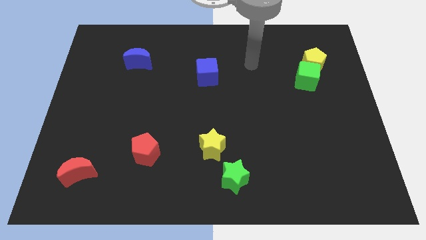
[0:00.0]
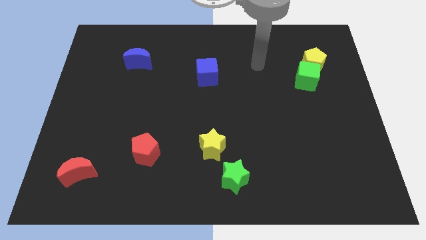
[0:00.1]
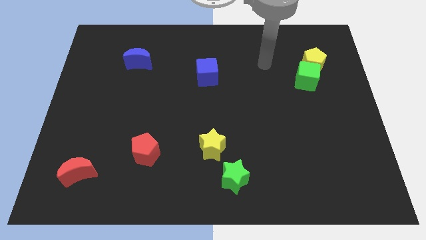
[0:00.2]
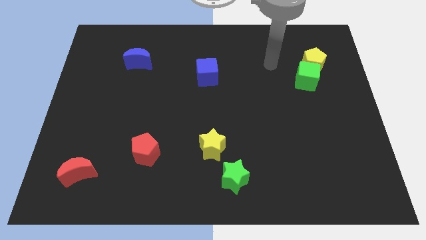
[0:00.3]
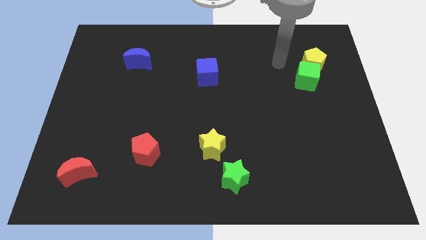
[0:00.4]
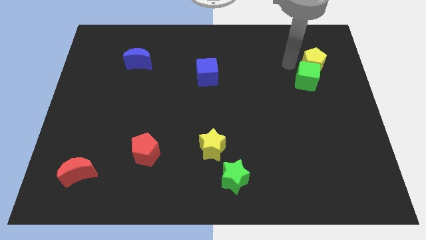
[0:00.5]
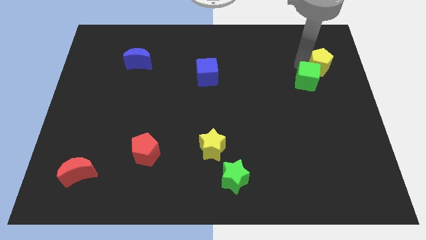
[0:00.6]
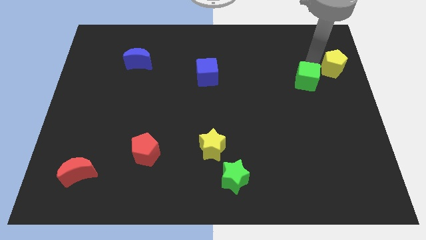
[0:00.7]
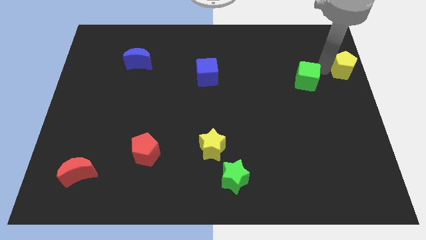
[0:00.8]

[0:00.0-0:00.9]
pull the green cube apart from the yellow pentagon

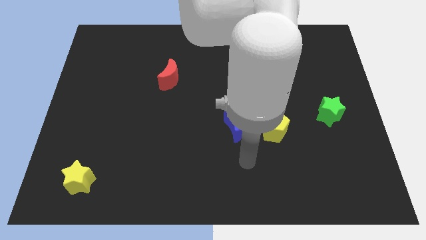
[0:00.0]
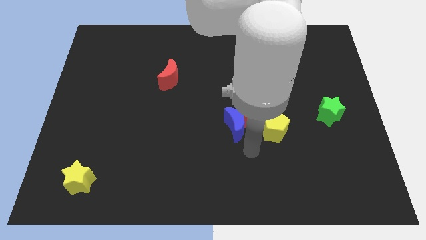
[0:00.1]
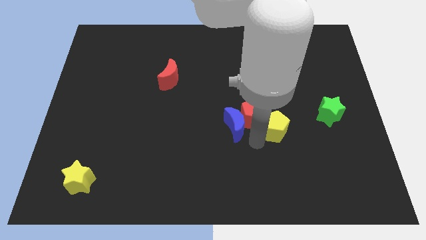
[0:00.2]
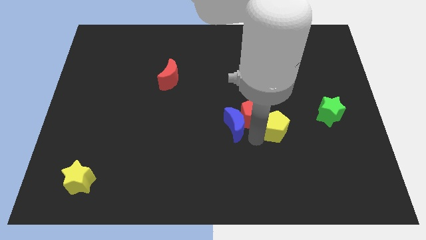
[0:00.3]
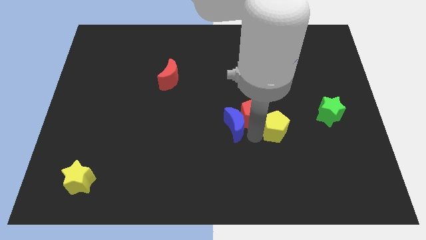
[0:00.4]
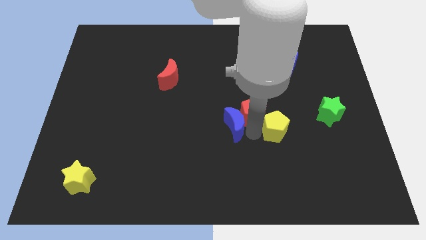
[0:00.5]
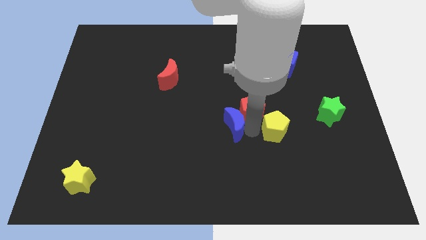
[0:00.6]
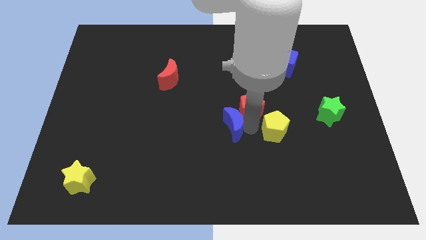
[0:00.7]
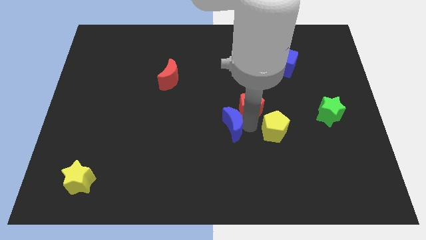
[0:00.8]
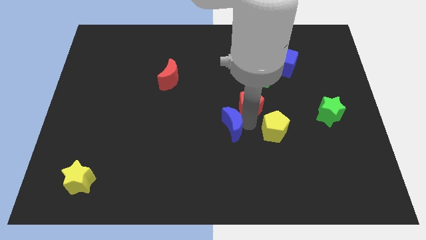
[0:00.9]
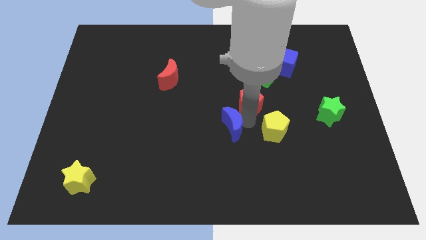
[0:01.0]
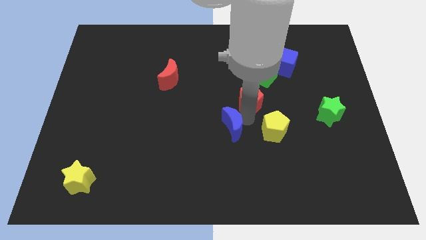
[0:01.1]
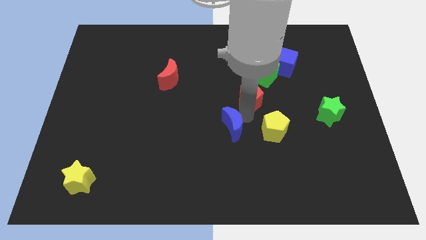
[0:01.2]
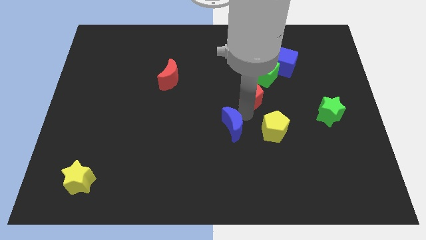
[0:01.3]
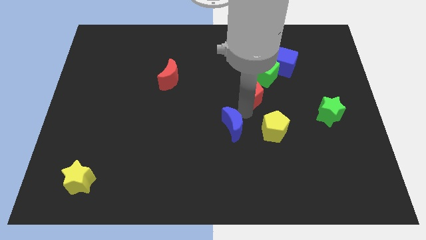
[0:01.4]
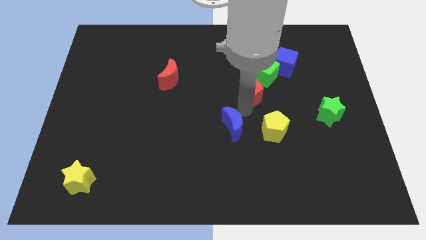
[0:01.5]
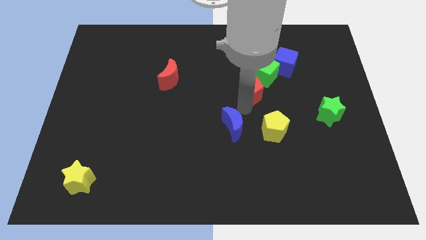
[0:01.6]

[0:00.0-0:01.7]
separate the red pentagon from the blue moon and yellow pentagon

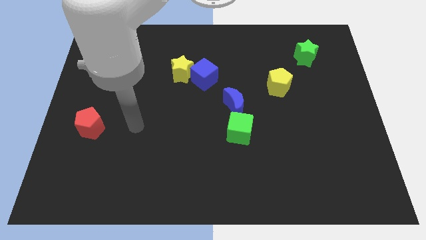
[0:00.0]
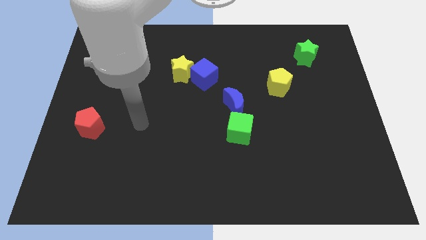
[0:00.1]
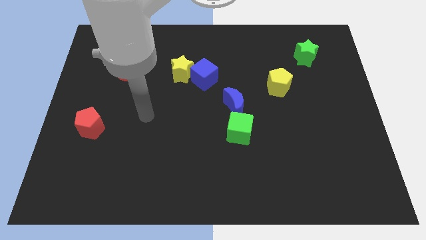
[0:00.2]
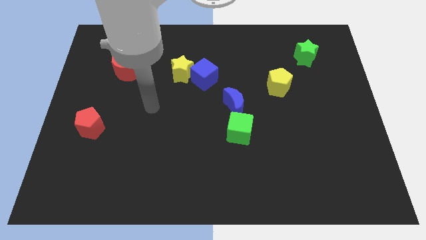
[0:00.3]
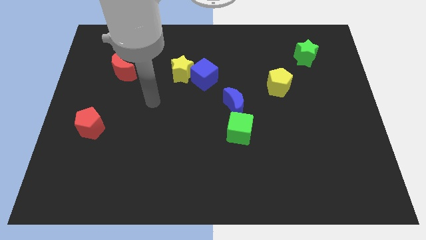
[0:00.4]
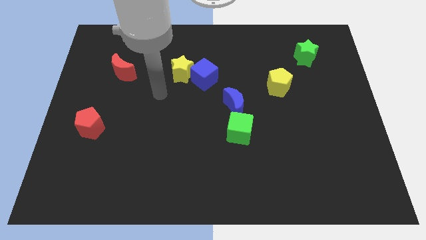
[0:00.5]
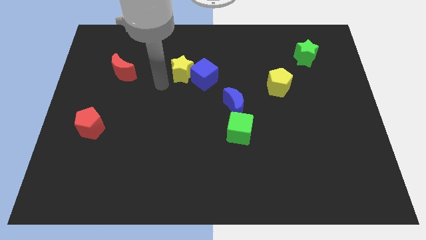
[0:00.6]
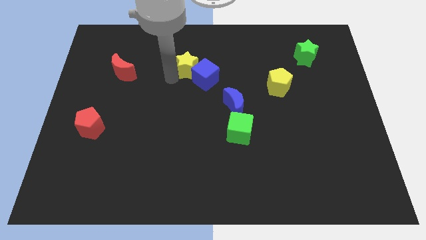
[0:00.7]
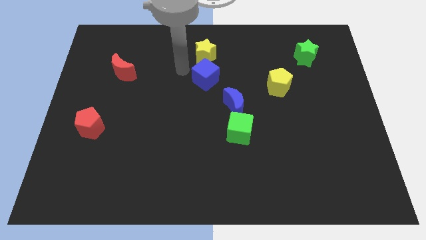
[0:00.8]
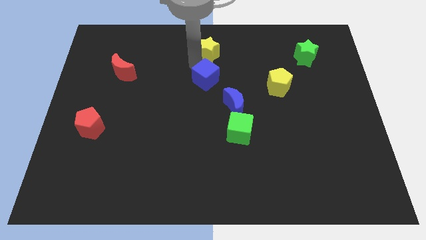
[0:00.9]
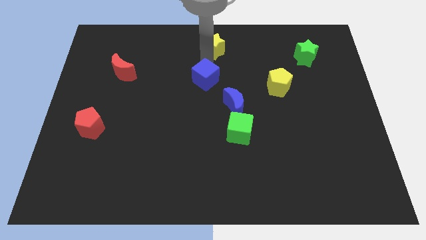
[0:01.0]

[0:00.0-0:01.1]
pull the blue cube apart from the yellow star

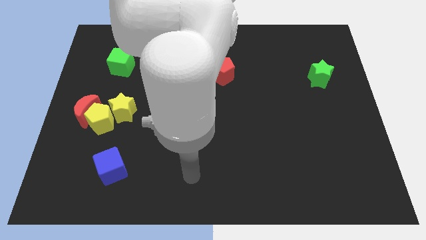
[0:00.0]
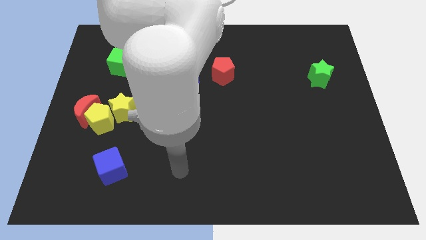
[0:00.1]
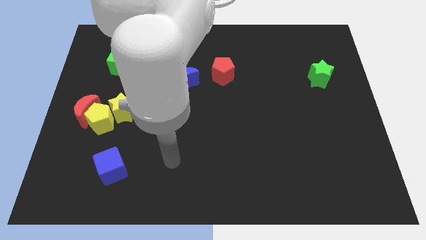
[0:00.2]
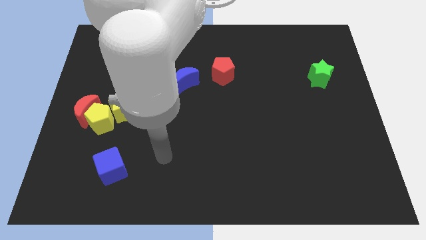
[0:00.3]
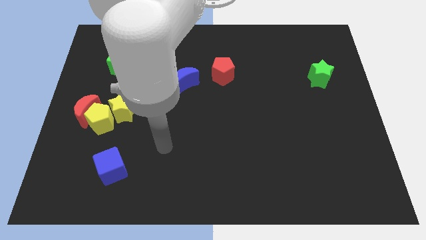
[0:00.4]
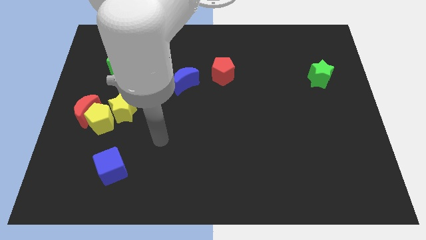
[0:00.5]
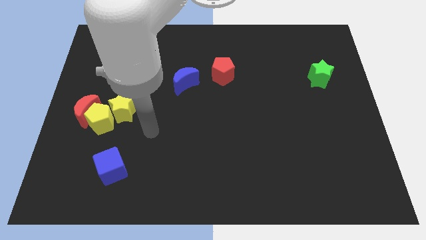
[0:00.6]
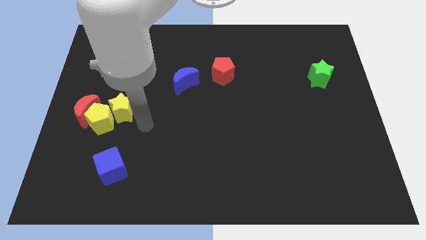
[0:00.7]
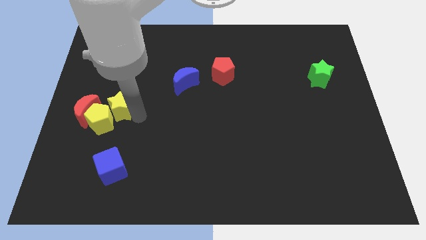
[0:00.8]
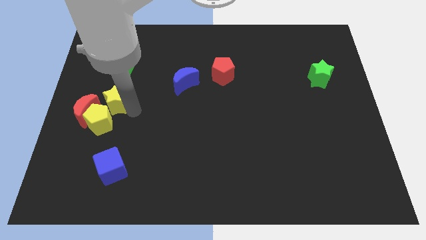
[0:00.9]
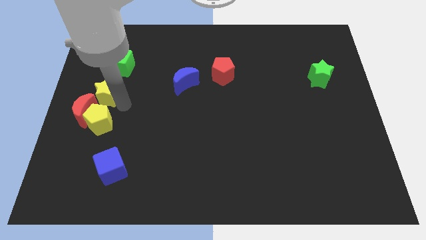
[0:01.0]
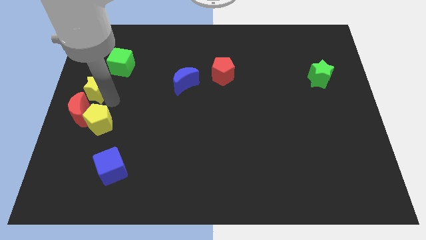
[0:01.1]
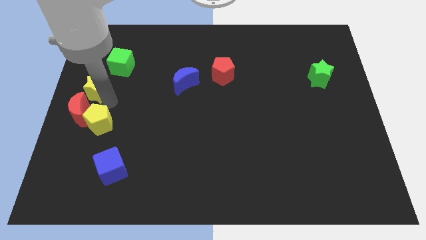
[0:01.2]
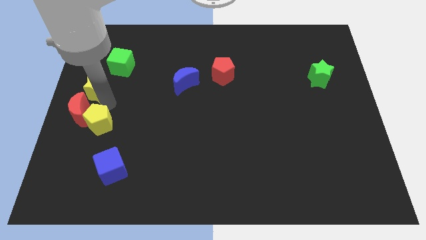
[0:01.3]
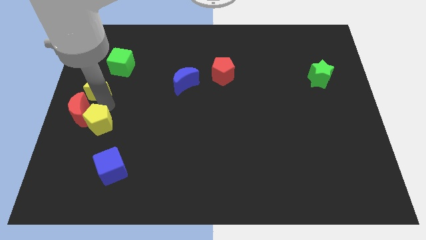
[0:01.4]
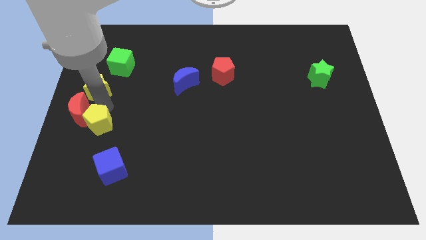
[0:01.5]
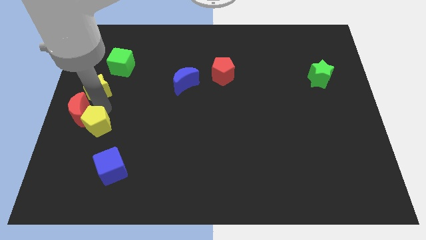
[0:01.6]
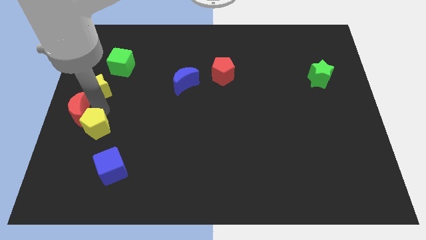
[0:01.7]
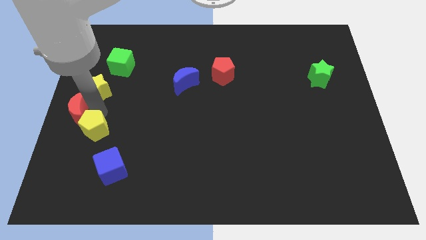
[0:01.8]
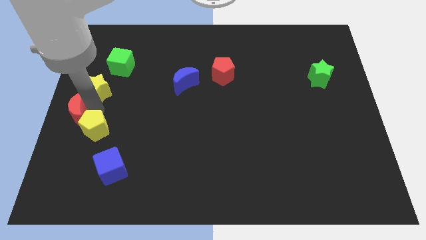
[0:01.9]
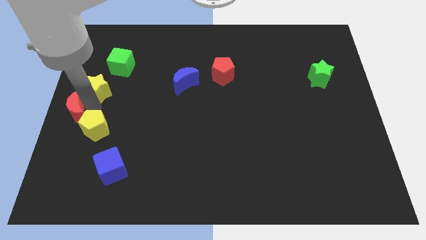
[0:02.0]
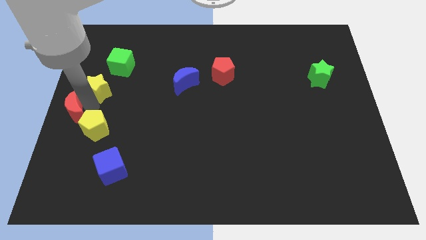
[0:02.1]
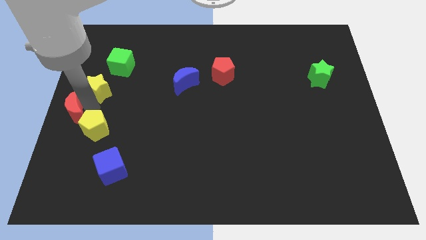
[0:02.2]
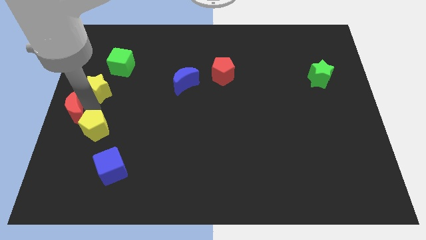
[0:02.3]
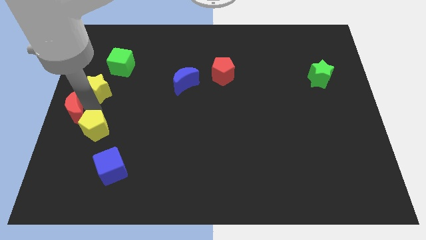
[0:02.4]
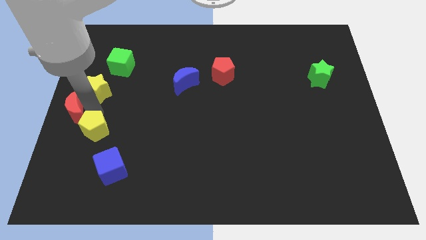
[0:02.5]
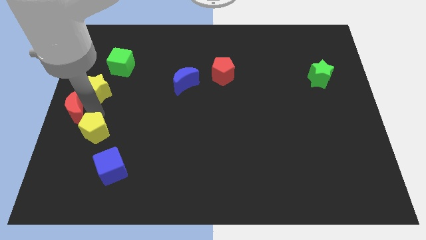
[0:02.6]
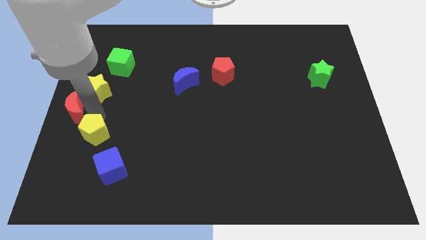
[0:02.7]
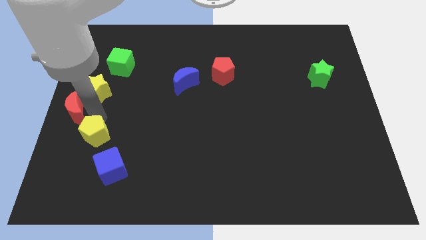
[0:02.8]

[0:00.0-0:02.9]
move the yellow pentagon away from the red moon and yellow star

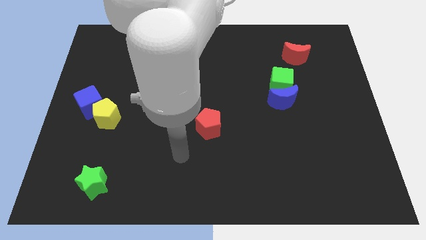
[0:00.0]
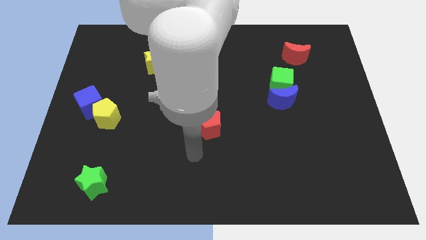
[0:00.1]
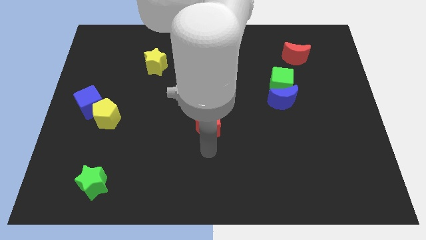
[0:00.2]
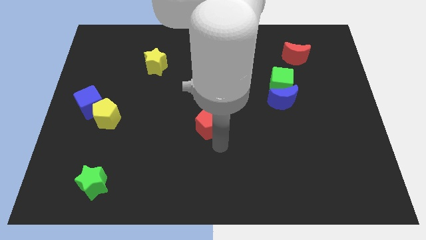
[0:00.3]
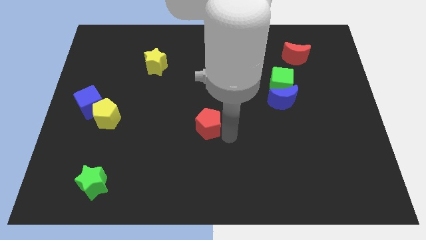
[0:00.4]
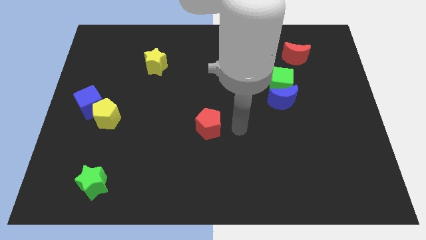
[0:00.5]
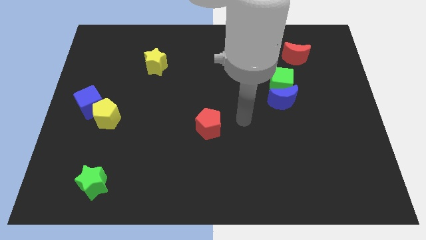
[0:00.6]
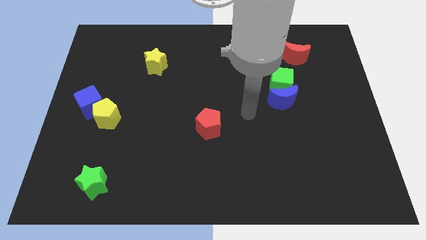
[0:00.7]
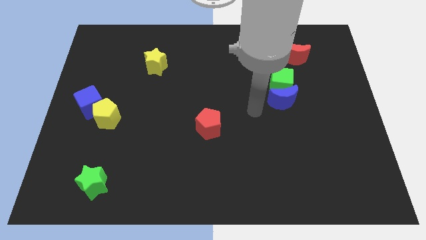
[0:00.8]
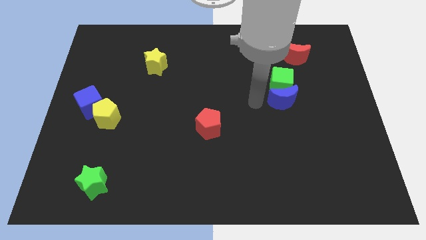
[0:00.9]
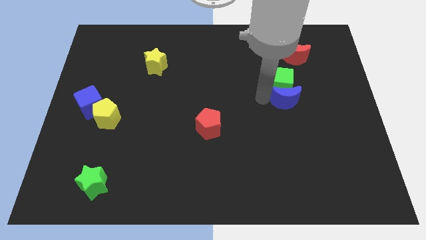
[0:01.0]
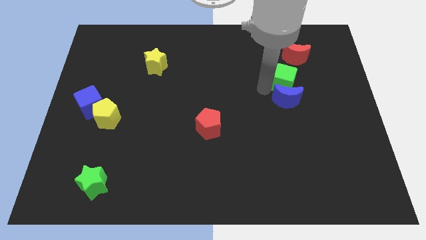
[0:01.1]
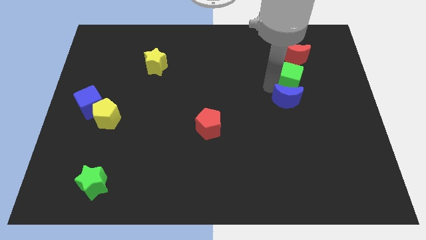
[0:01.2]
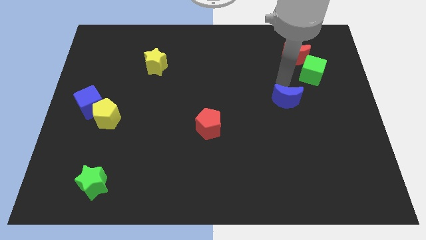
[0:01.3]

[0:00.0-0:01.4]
move the blue moon away from the green cube

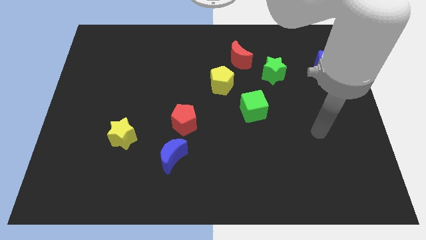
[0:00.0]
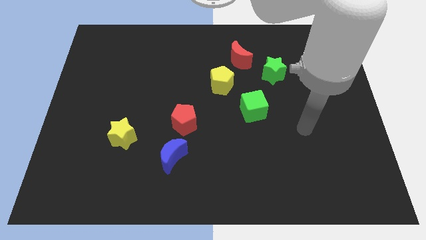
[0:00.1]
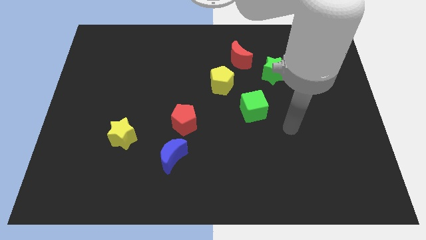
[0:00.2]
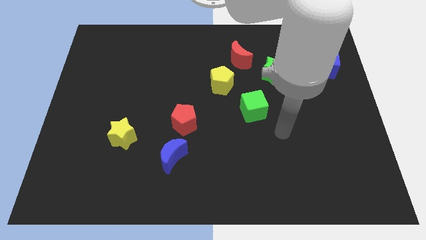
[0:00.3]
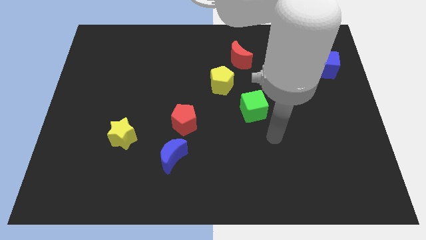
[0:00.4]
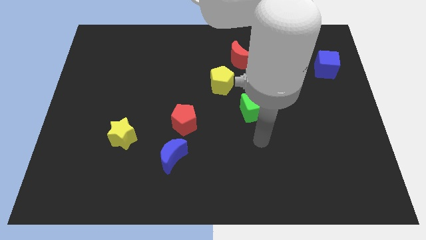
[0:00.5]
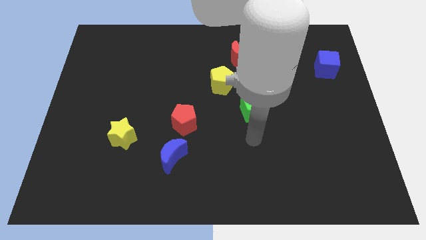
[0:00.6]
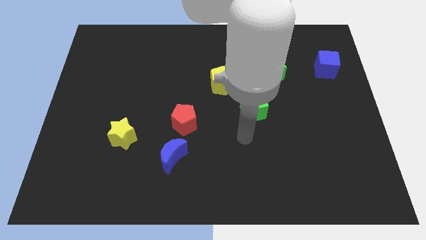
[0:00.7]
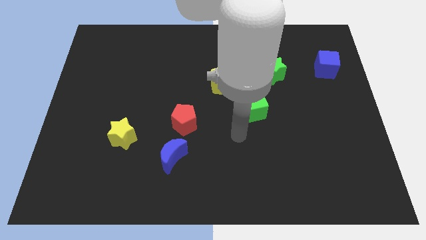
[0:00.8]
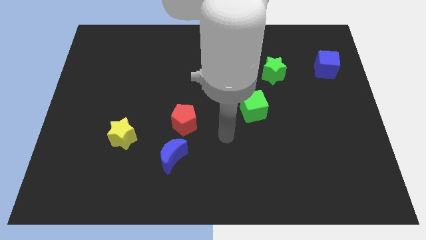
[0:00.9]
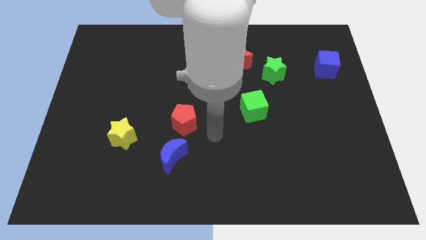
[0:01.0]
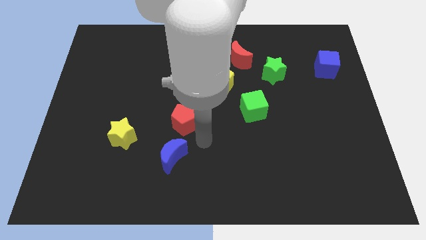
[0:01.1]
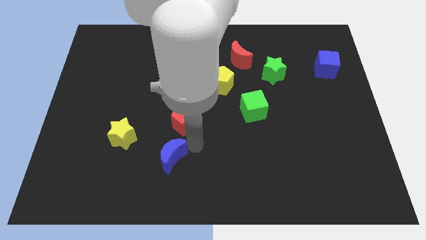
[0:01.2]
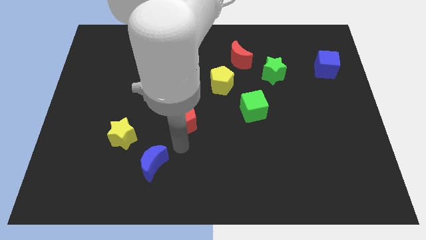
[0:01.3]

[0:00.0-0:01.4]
move the red pentagon away from the blue moon
